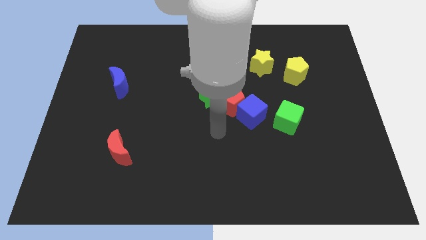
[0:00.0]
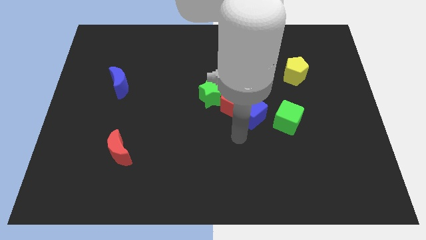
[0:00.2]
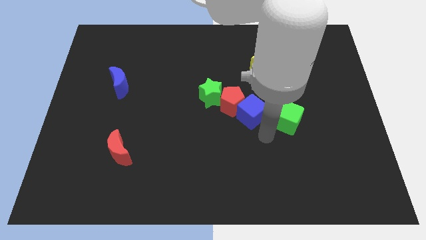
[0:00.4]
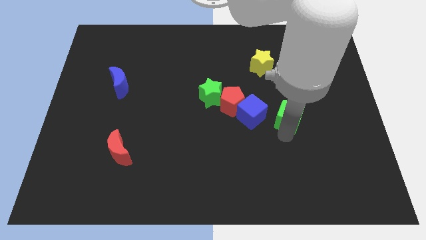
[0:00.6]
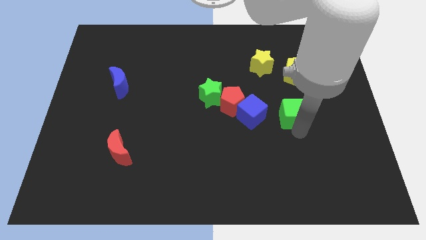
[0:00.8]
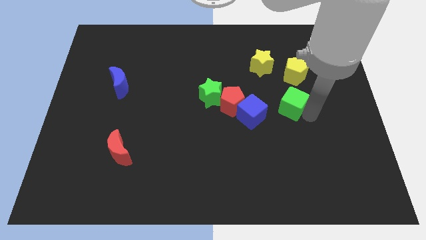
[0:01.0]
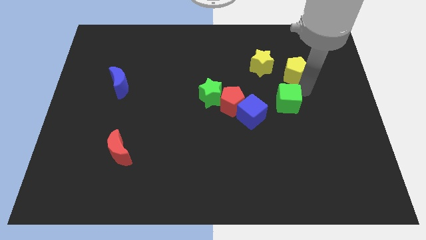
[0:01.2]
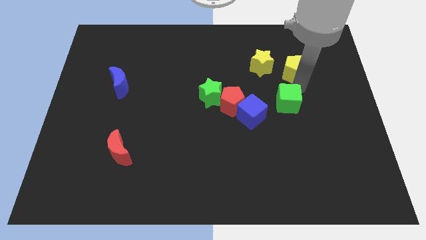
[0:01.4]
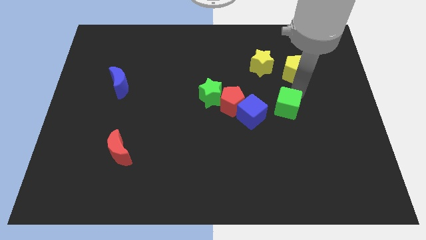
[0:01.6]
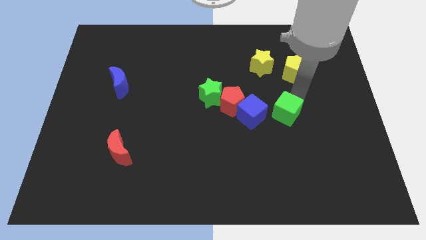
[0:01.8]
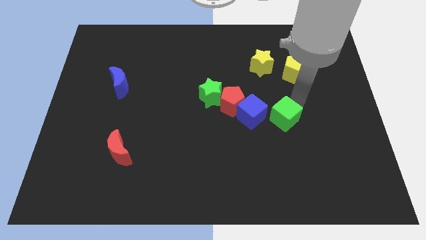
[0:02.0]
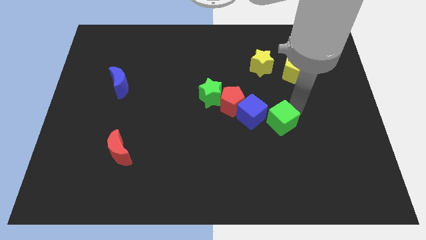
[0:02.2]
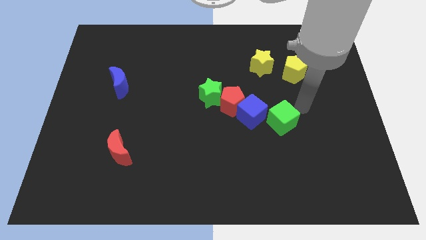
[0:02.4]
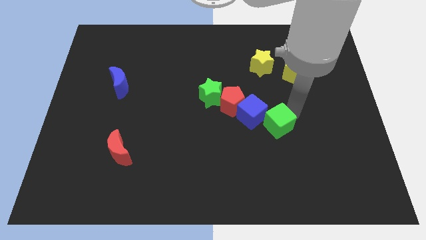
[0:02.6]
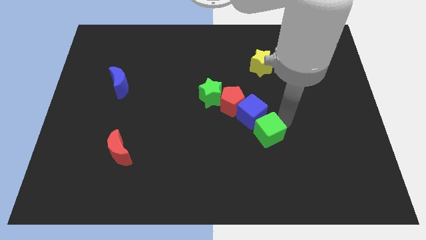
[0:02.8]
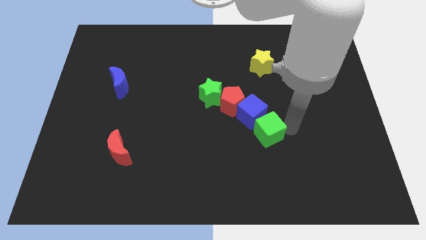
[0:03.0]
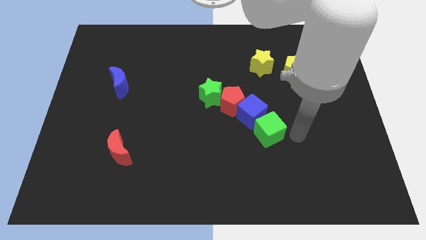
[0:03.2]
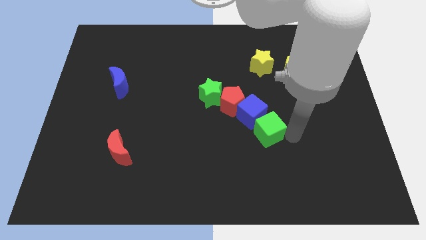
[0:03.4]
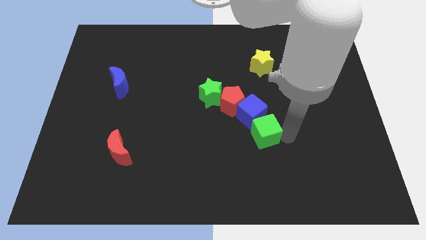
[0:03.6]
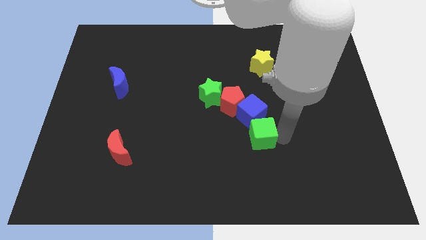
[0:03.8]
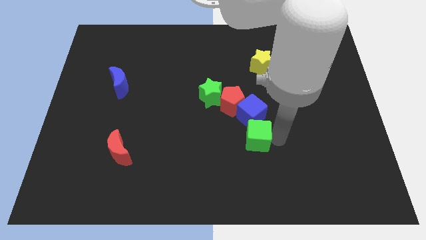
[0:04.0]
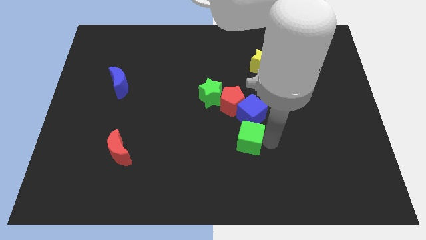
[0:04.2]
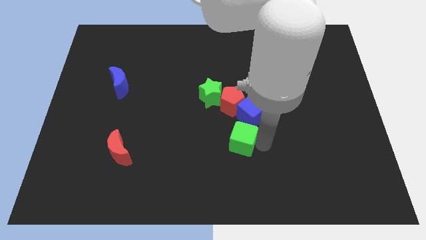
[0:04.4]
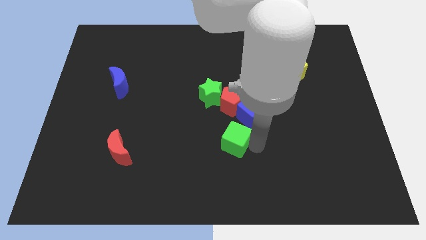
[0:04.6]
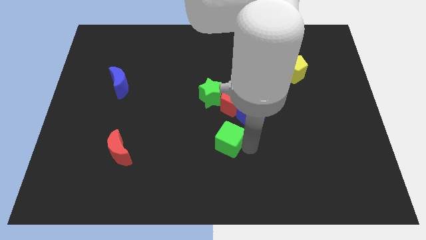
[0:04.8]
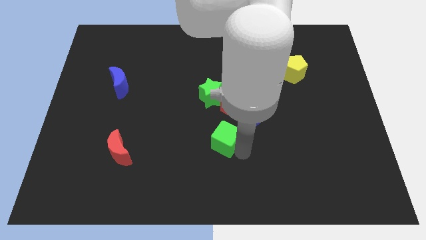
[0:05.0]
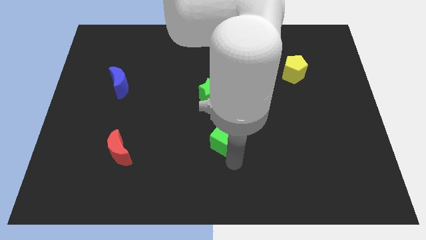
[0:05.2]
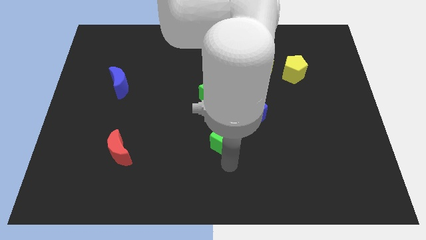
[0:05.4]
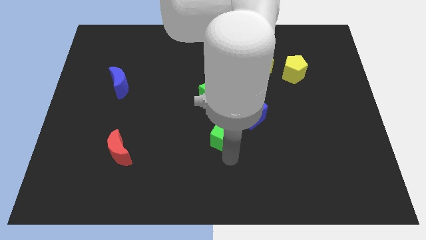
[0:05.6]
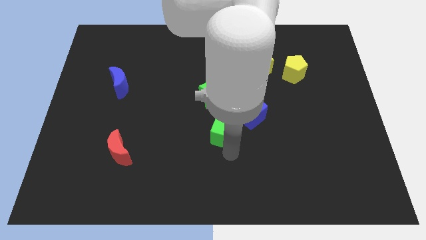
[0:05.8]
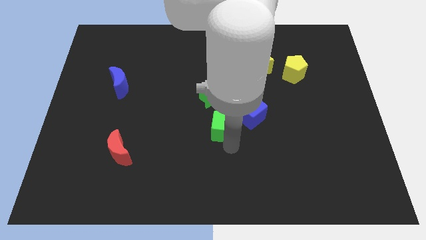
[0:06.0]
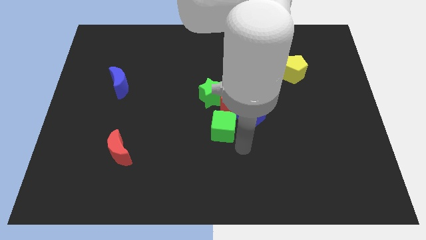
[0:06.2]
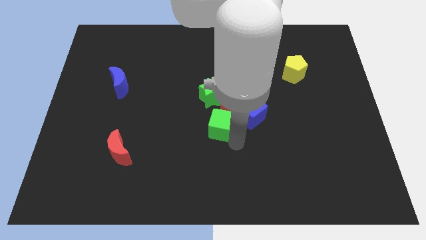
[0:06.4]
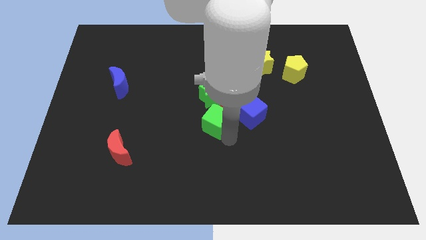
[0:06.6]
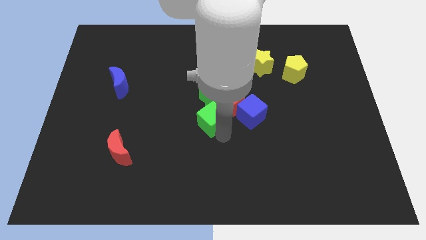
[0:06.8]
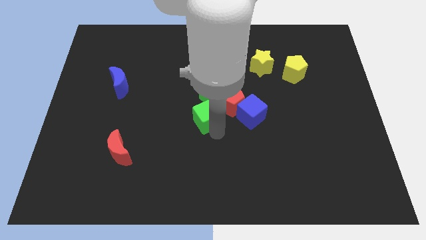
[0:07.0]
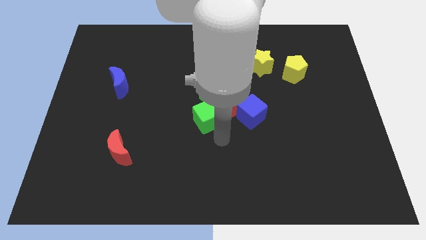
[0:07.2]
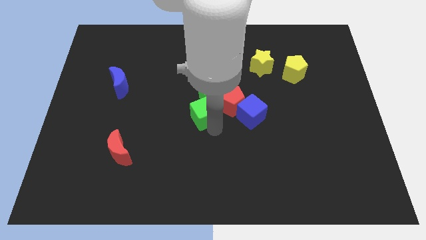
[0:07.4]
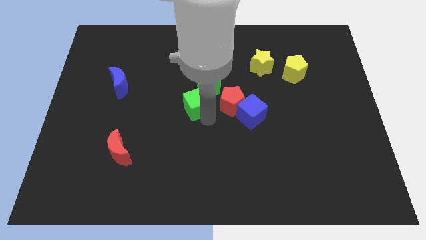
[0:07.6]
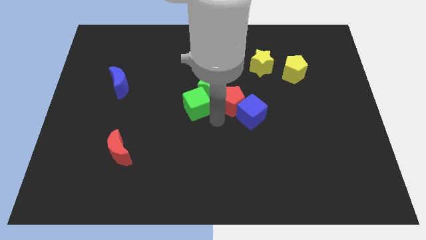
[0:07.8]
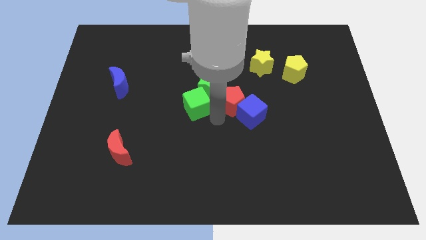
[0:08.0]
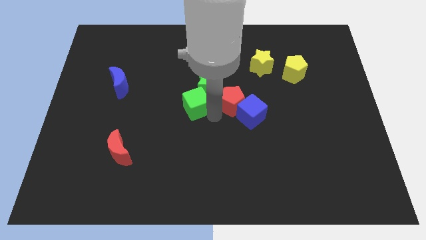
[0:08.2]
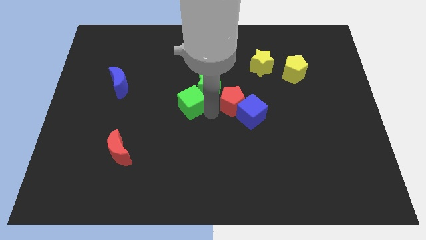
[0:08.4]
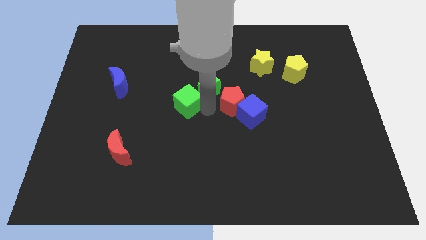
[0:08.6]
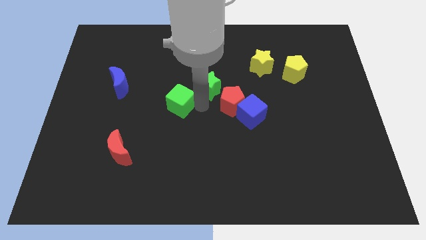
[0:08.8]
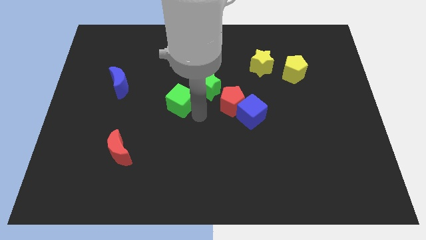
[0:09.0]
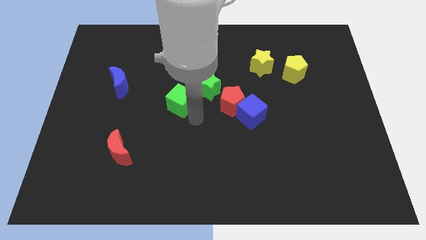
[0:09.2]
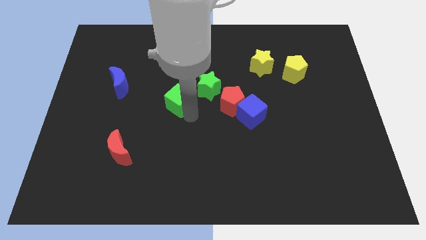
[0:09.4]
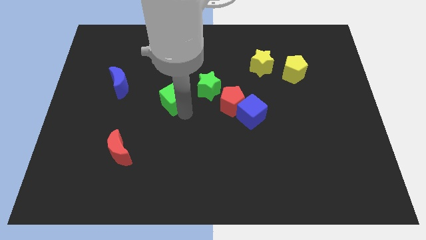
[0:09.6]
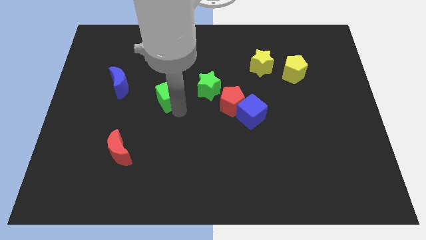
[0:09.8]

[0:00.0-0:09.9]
slide the green cube right of the blue moon

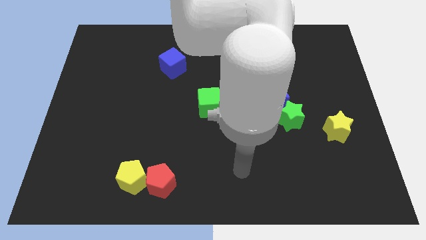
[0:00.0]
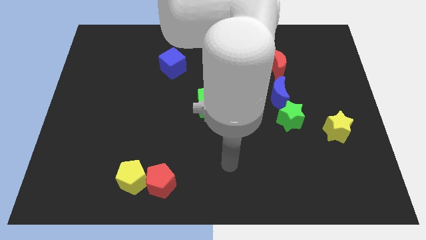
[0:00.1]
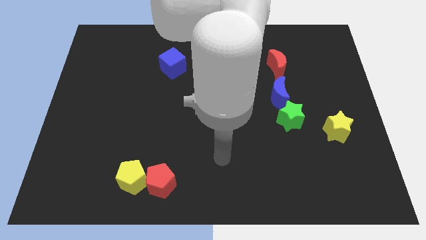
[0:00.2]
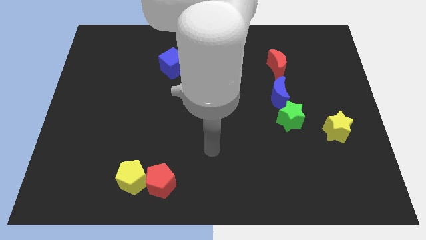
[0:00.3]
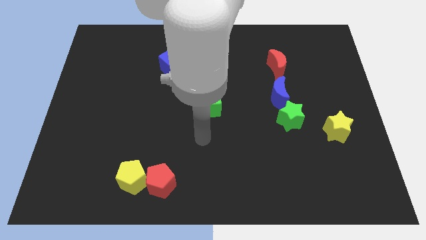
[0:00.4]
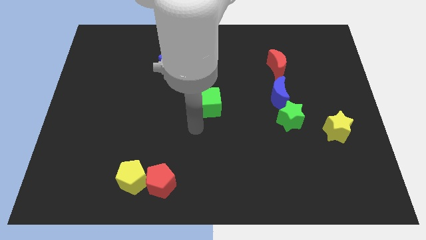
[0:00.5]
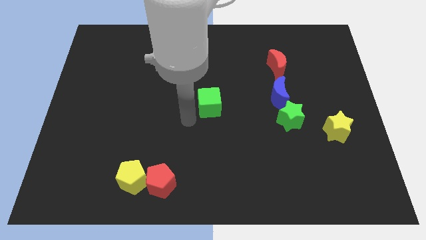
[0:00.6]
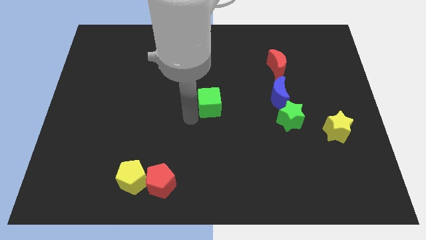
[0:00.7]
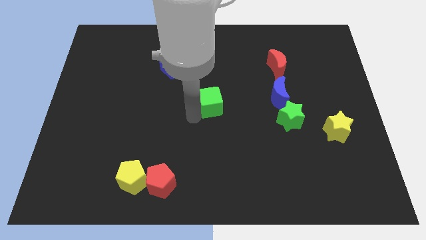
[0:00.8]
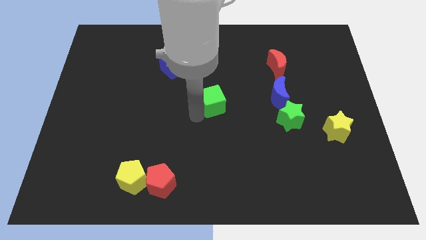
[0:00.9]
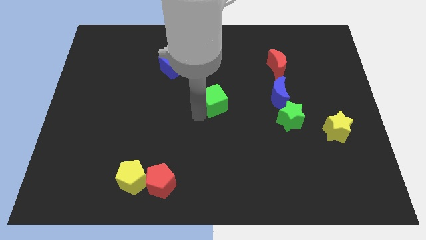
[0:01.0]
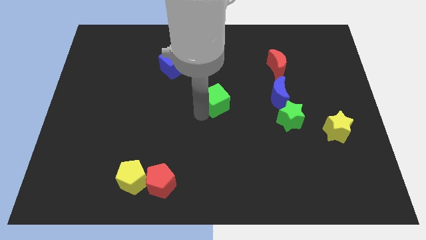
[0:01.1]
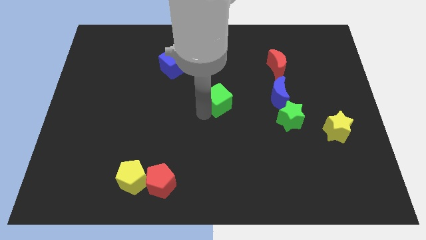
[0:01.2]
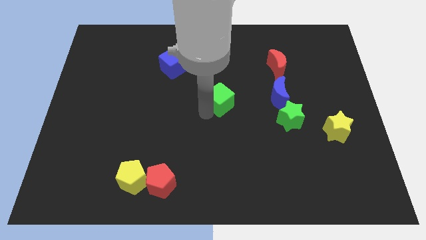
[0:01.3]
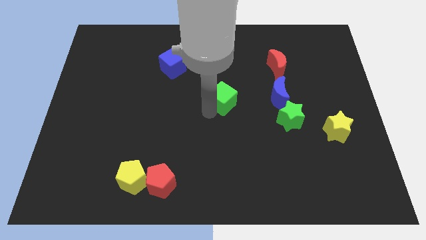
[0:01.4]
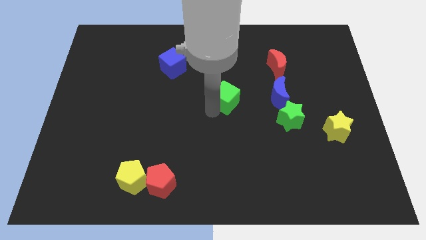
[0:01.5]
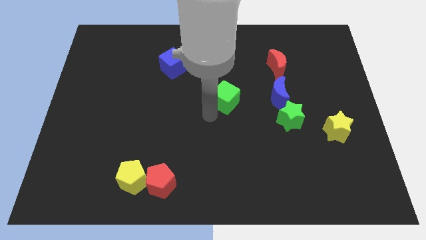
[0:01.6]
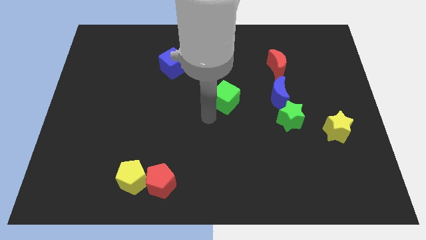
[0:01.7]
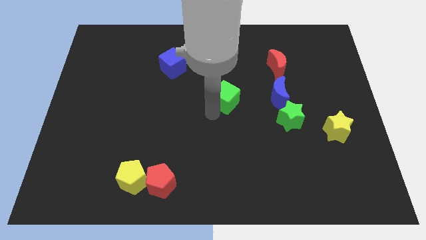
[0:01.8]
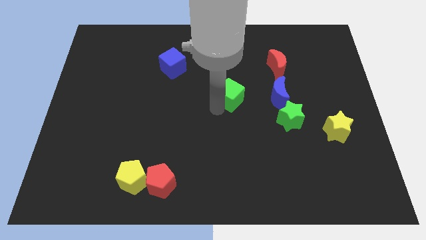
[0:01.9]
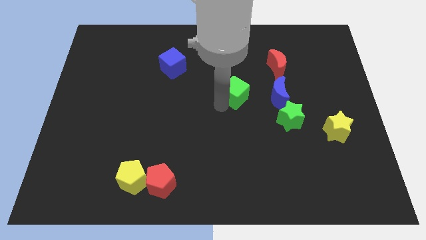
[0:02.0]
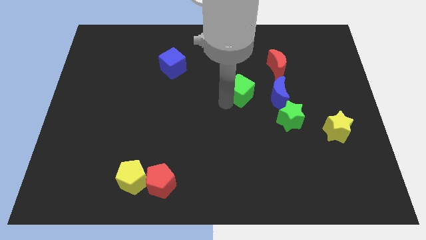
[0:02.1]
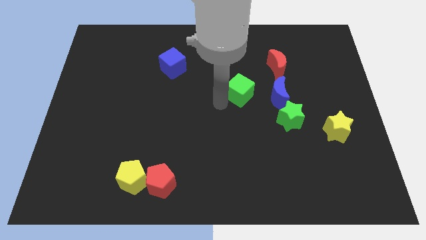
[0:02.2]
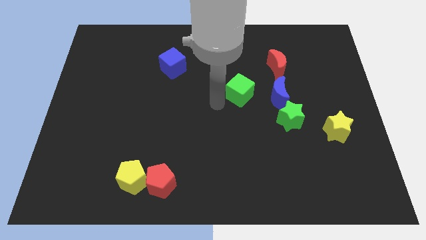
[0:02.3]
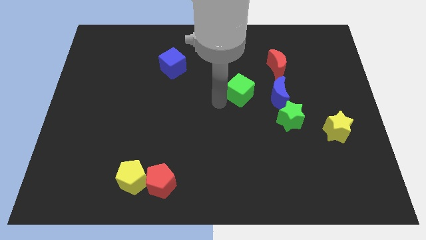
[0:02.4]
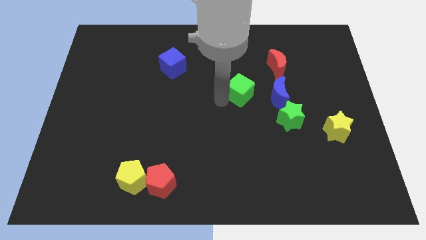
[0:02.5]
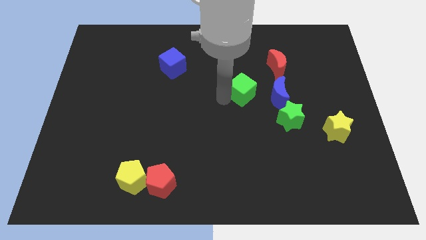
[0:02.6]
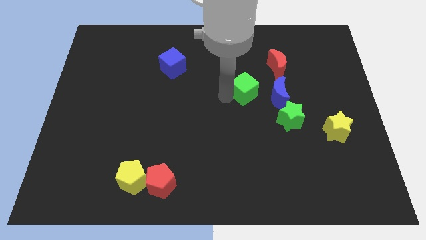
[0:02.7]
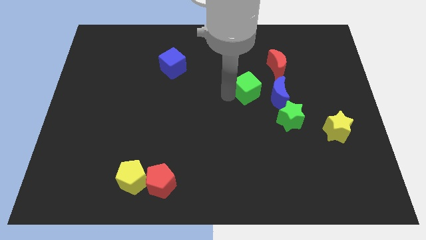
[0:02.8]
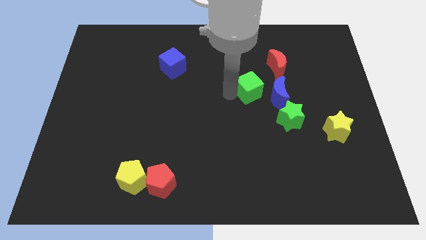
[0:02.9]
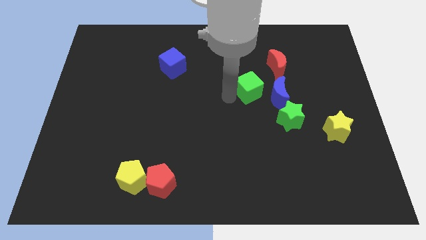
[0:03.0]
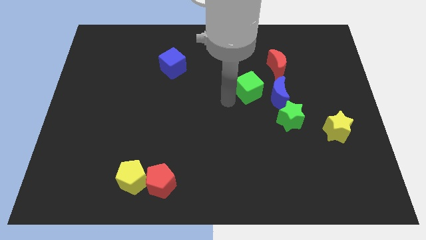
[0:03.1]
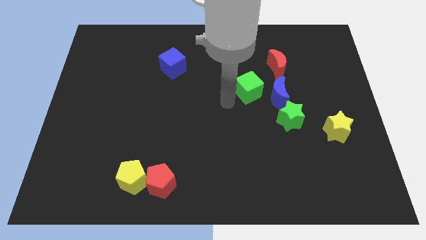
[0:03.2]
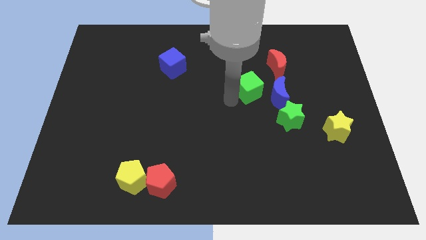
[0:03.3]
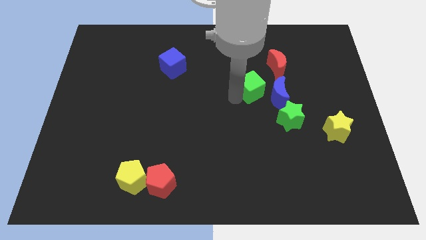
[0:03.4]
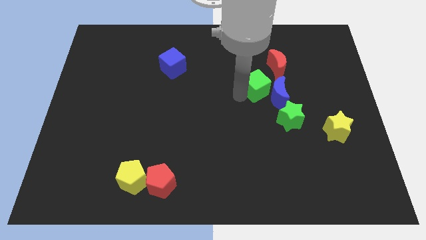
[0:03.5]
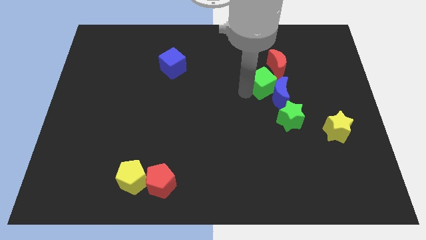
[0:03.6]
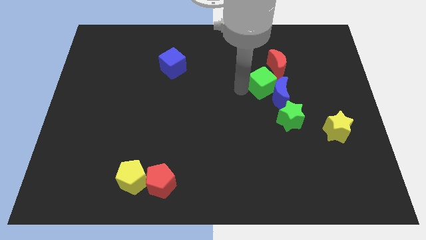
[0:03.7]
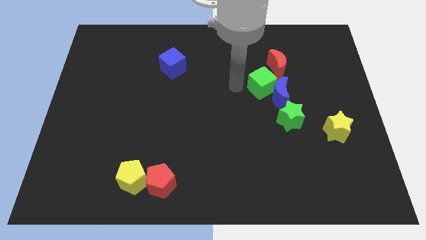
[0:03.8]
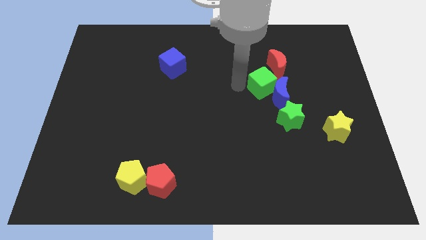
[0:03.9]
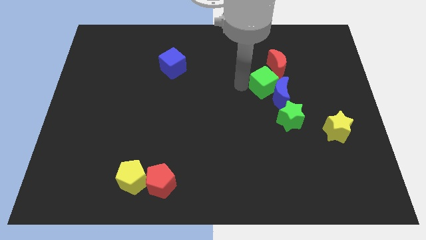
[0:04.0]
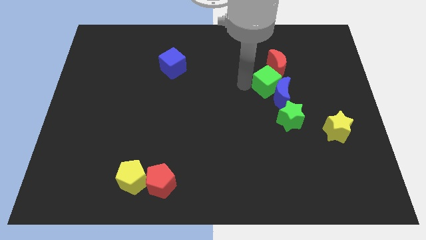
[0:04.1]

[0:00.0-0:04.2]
push the green cube above the green star
